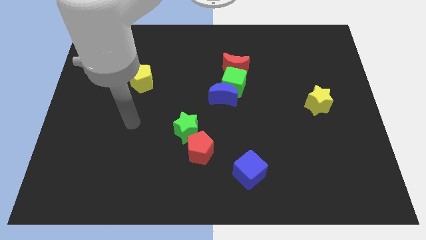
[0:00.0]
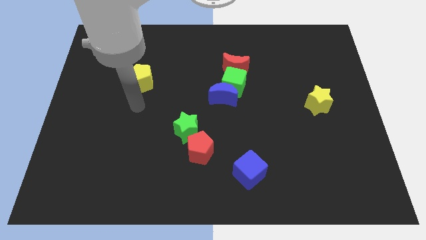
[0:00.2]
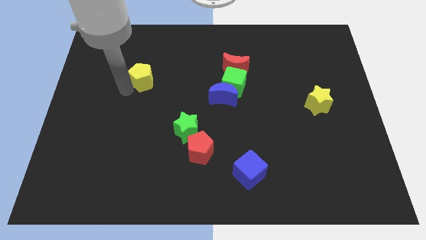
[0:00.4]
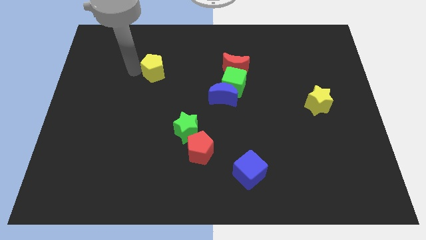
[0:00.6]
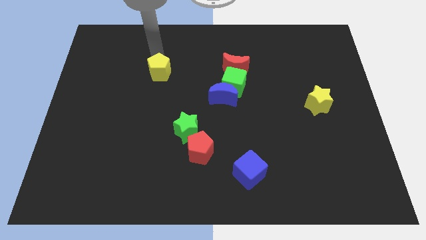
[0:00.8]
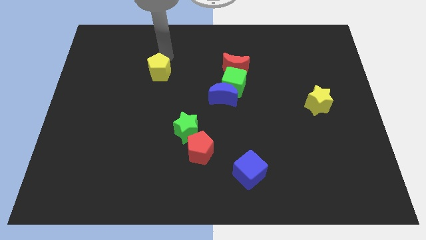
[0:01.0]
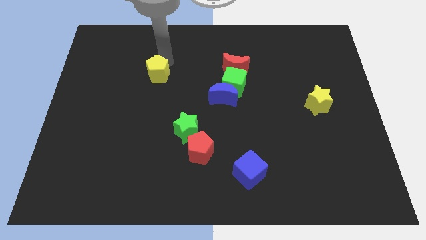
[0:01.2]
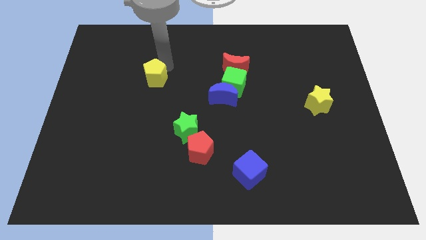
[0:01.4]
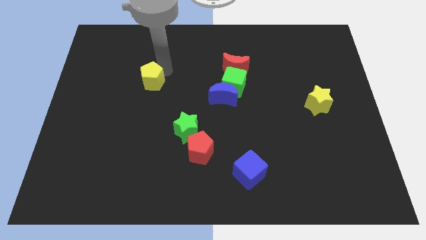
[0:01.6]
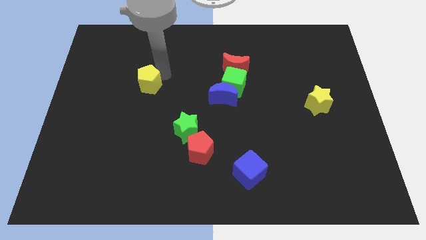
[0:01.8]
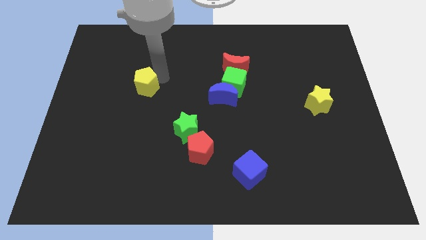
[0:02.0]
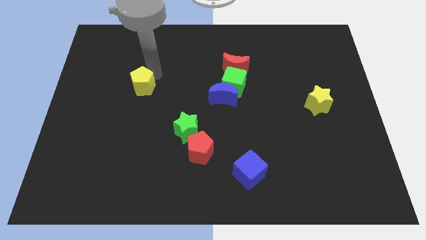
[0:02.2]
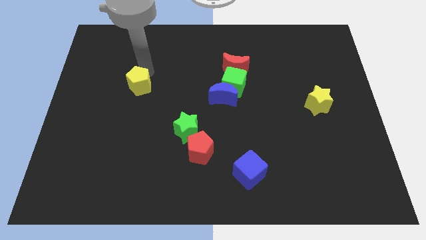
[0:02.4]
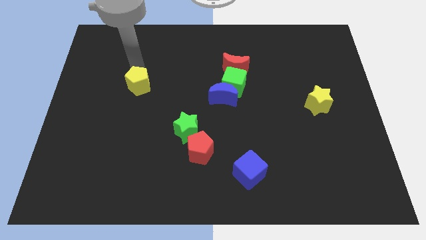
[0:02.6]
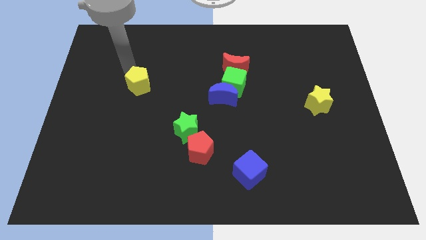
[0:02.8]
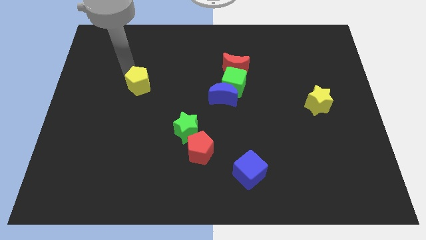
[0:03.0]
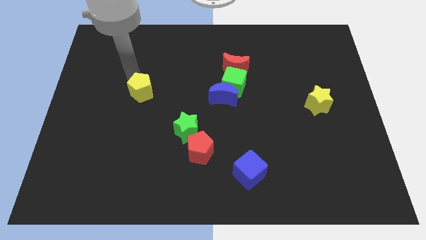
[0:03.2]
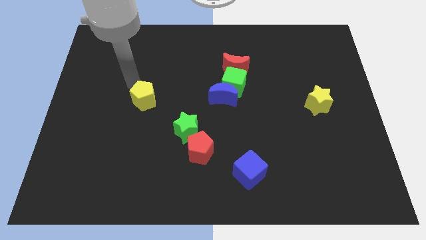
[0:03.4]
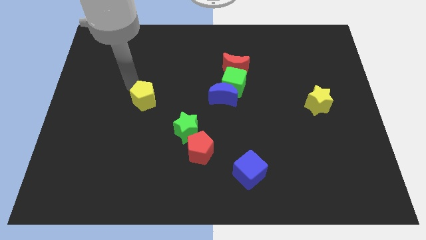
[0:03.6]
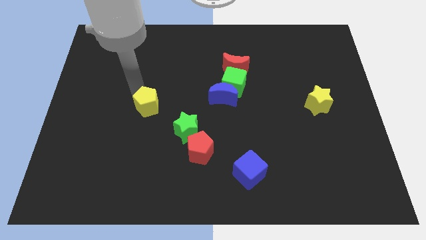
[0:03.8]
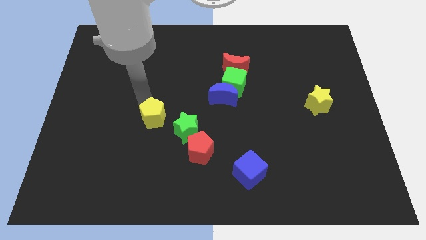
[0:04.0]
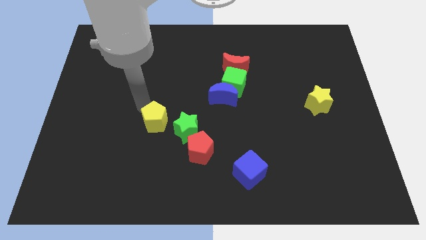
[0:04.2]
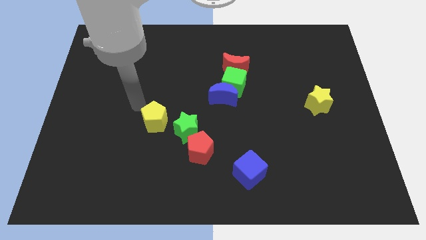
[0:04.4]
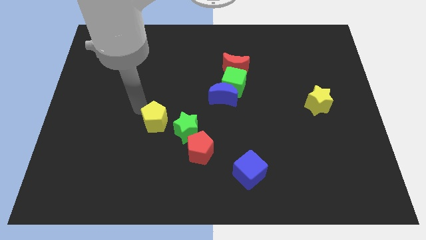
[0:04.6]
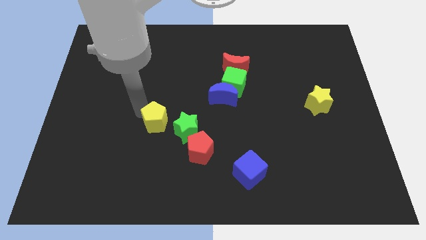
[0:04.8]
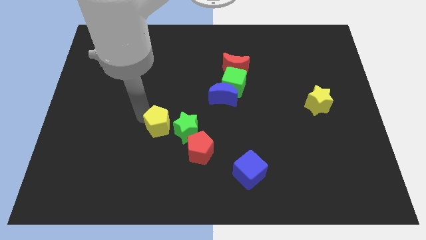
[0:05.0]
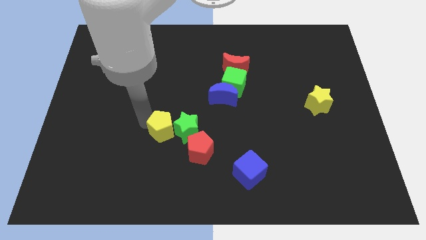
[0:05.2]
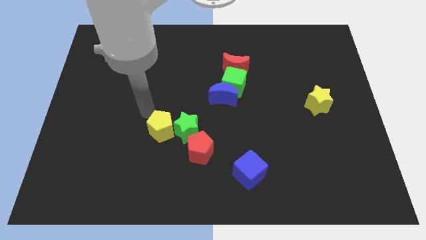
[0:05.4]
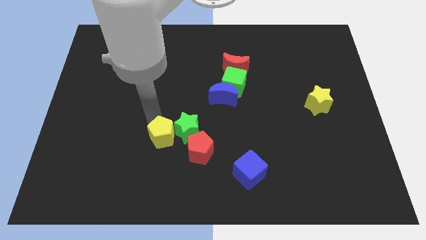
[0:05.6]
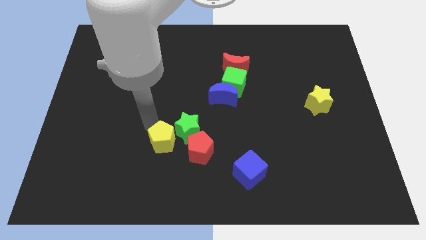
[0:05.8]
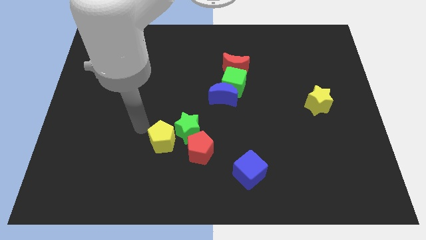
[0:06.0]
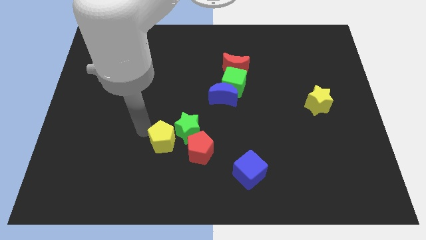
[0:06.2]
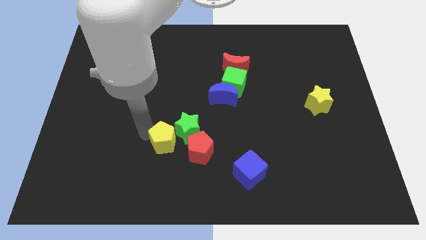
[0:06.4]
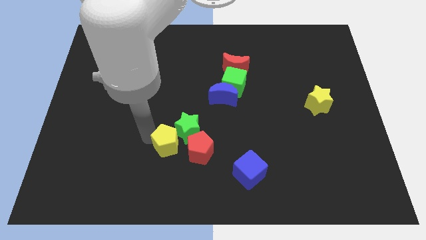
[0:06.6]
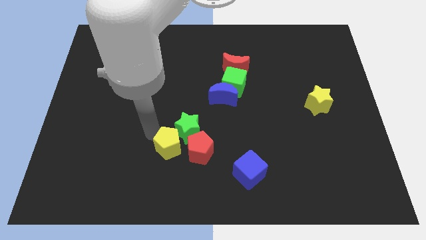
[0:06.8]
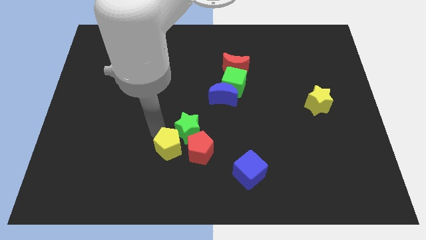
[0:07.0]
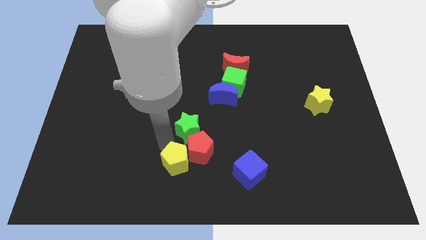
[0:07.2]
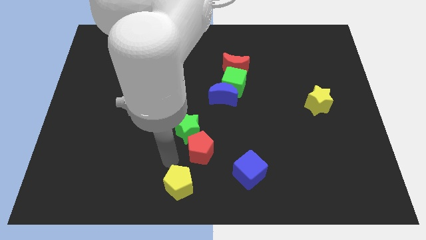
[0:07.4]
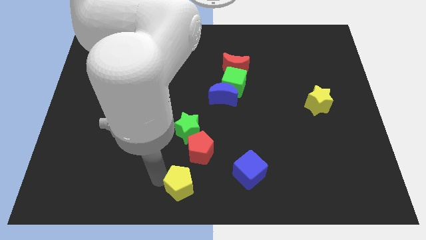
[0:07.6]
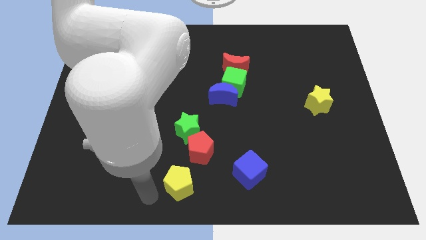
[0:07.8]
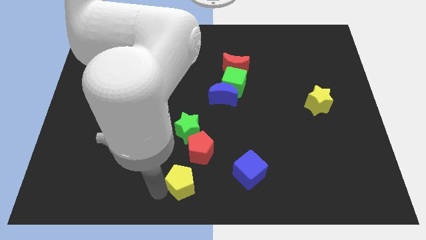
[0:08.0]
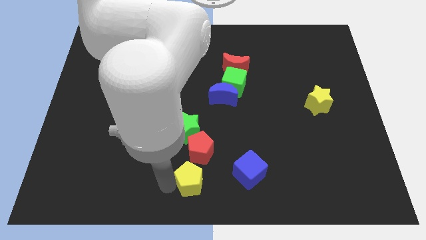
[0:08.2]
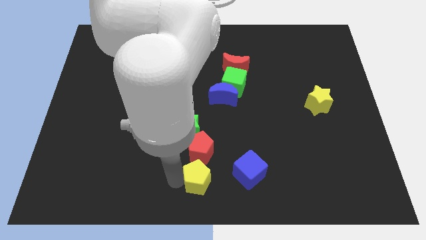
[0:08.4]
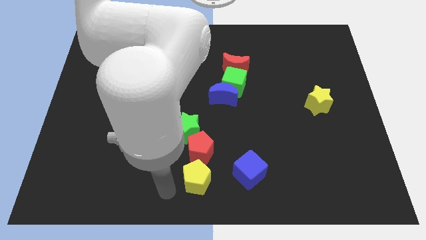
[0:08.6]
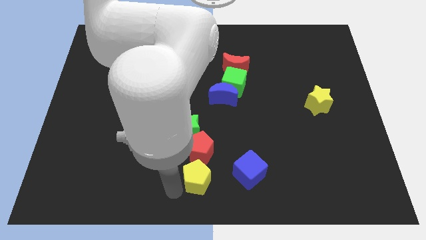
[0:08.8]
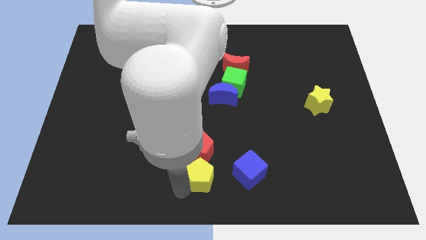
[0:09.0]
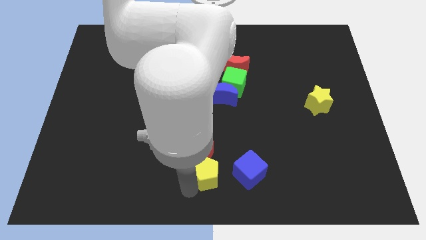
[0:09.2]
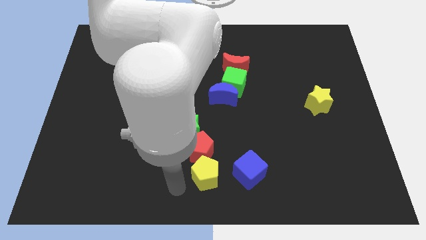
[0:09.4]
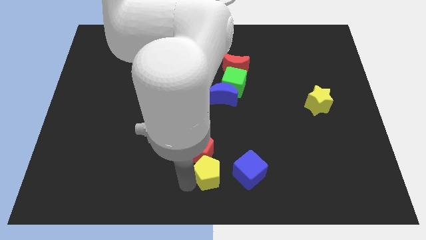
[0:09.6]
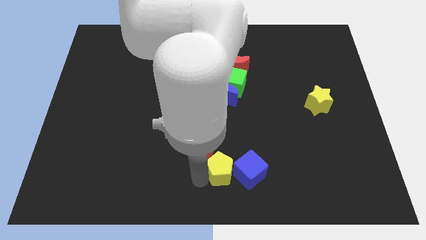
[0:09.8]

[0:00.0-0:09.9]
push the yellow pentagon next to the blue cube

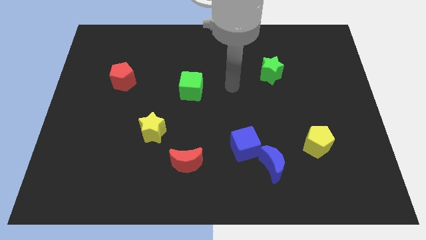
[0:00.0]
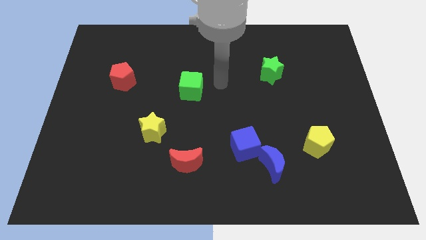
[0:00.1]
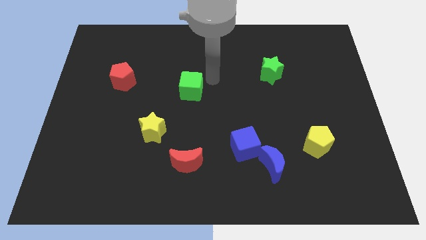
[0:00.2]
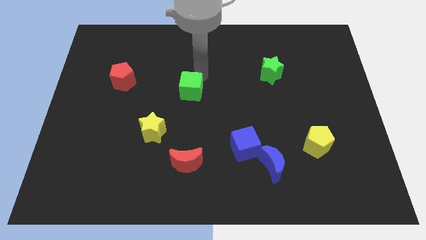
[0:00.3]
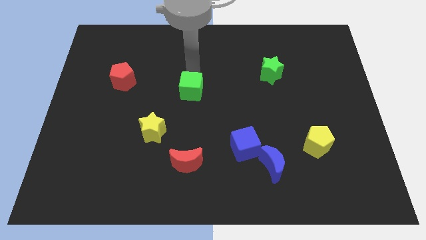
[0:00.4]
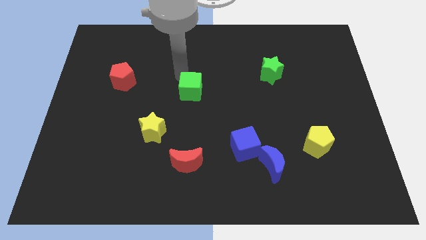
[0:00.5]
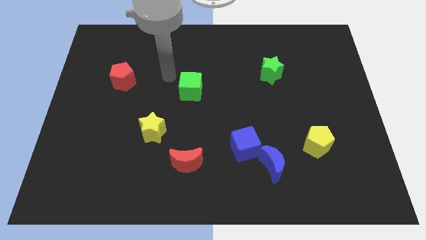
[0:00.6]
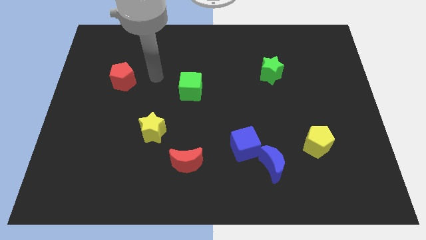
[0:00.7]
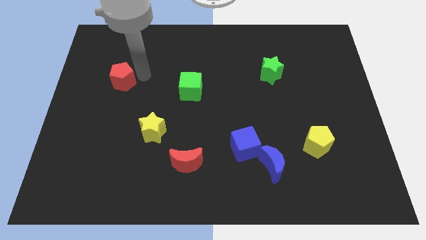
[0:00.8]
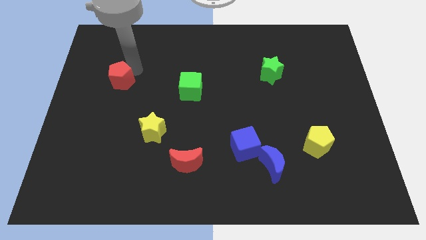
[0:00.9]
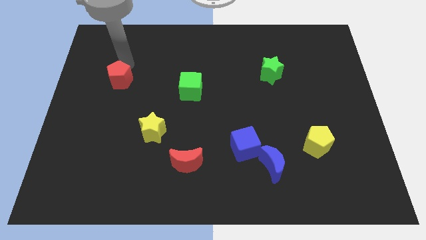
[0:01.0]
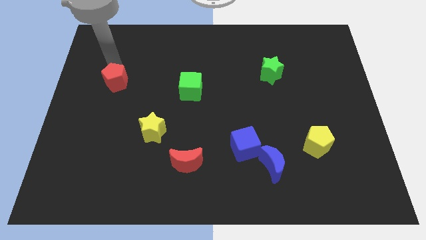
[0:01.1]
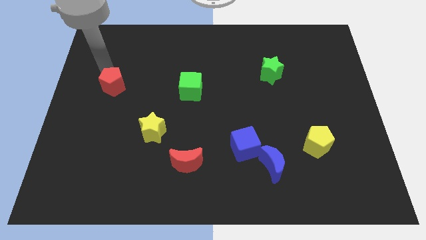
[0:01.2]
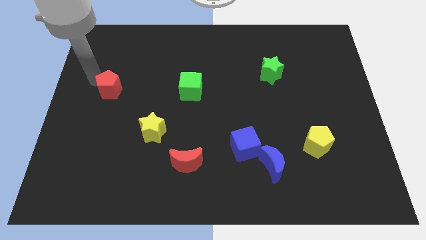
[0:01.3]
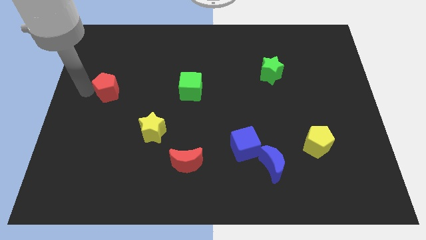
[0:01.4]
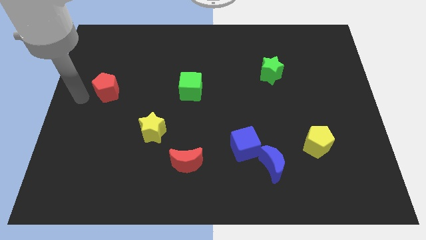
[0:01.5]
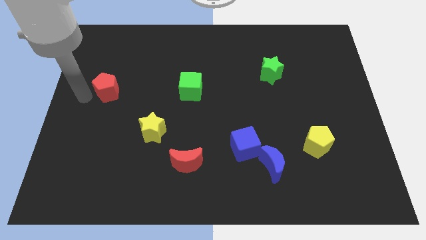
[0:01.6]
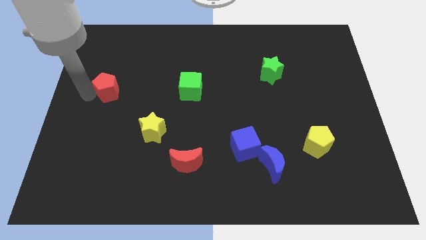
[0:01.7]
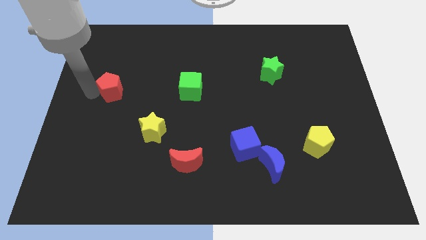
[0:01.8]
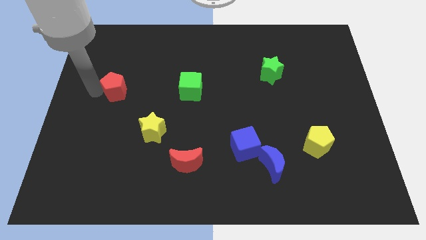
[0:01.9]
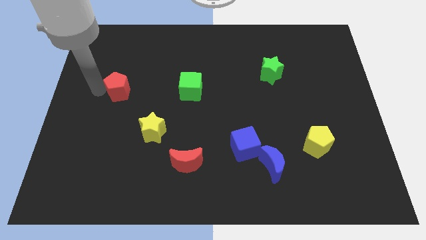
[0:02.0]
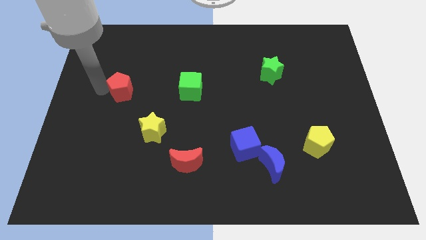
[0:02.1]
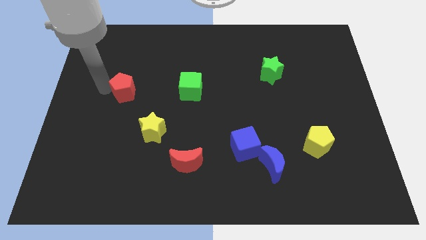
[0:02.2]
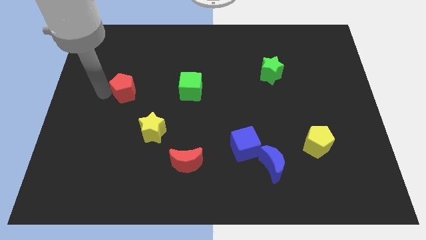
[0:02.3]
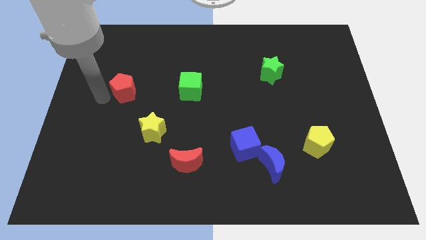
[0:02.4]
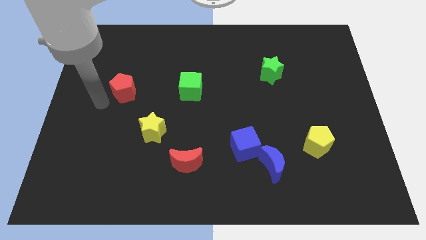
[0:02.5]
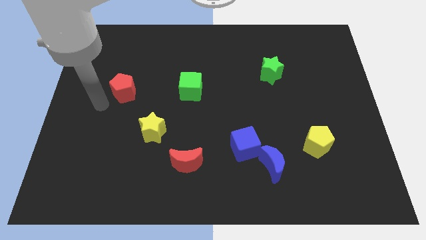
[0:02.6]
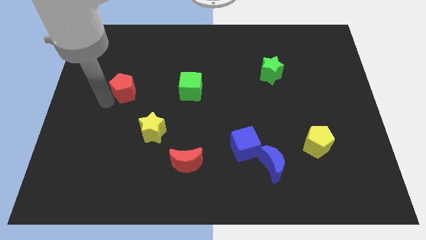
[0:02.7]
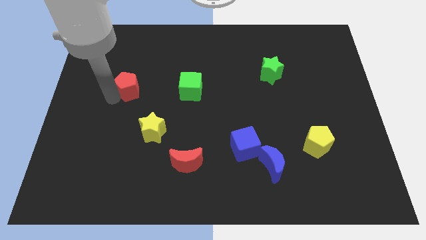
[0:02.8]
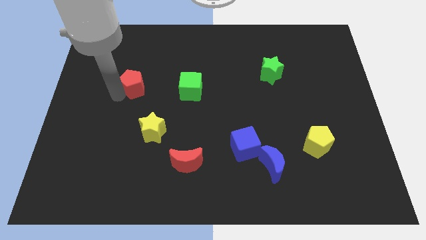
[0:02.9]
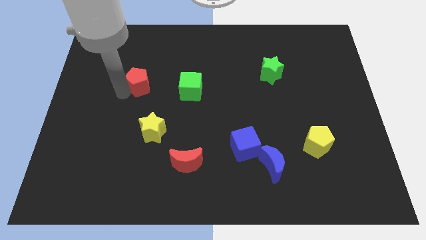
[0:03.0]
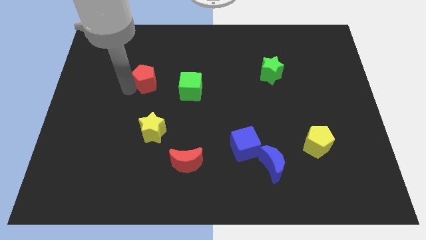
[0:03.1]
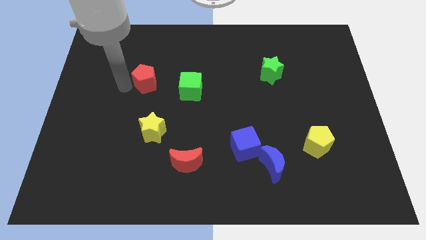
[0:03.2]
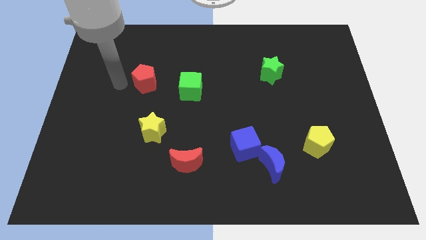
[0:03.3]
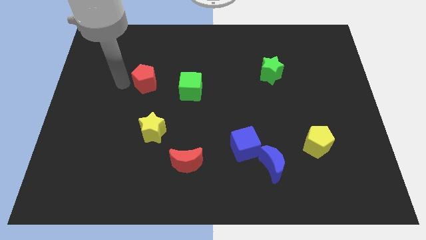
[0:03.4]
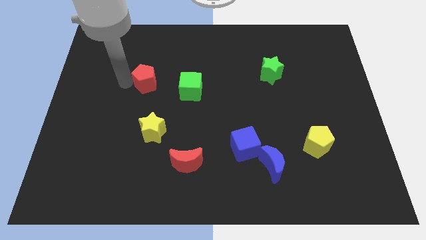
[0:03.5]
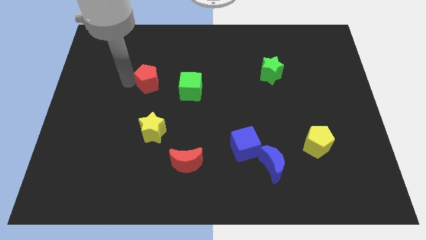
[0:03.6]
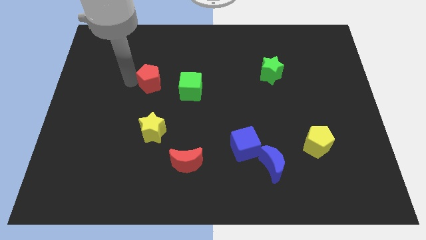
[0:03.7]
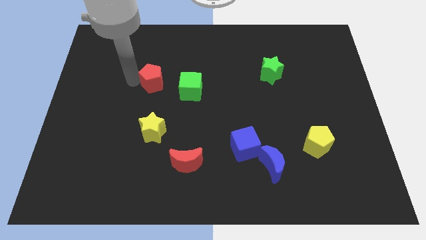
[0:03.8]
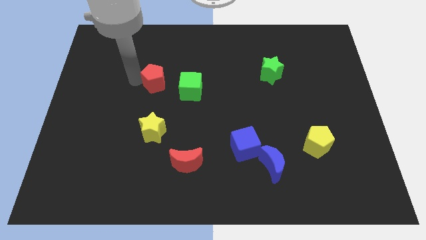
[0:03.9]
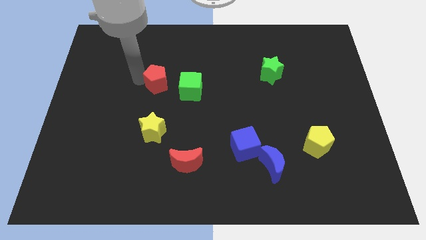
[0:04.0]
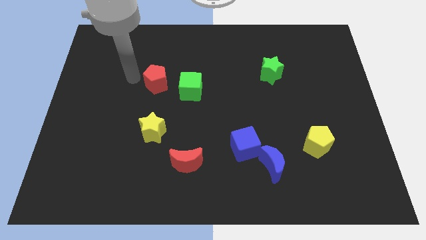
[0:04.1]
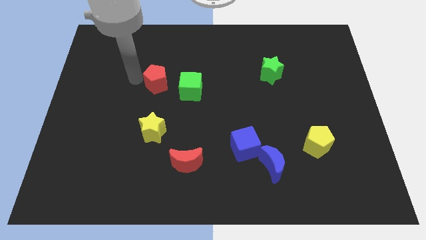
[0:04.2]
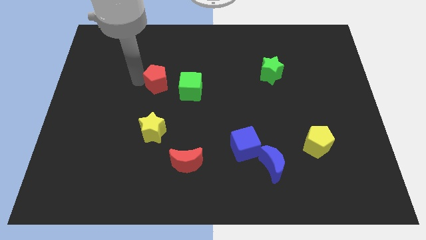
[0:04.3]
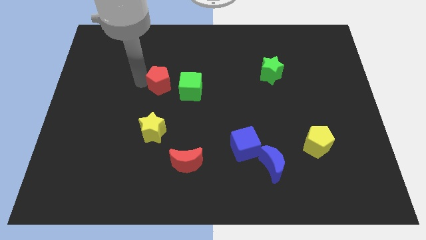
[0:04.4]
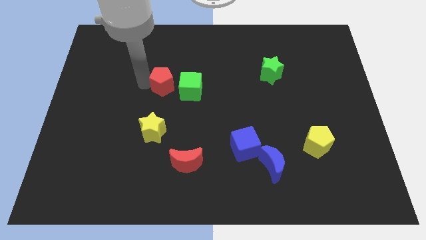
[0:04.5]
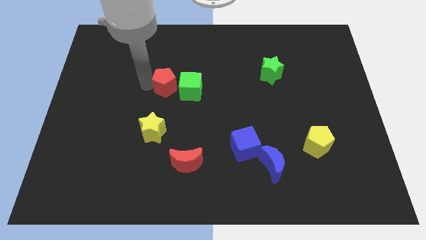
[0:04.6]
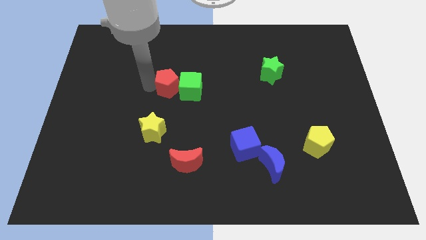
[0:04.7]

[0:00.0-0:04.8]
slide the red pentagon close to the green cube
